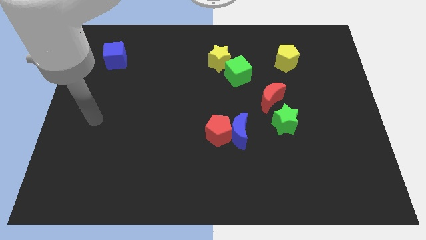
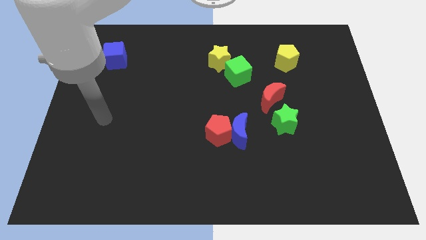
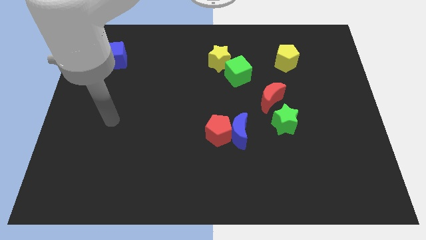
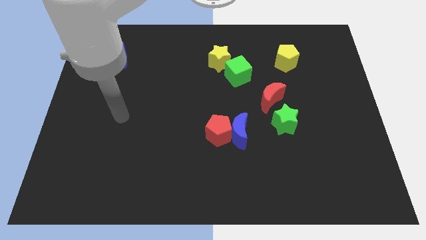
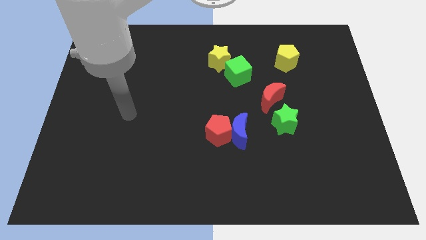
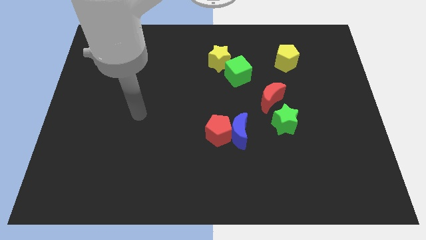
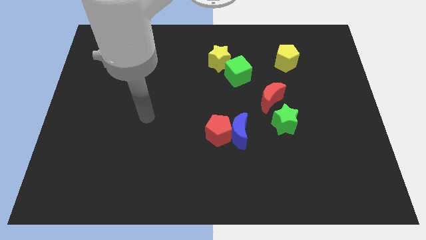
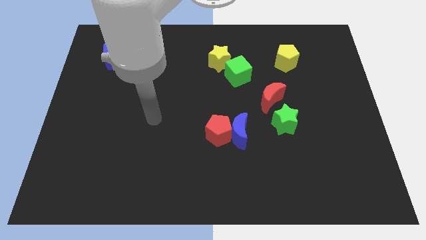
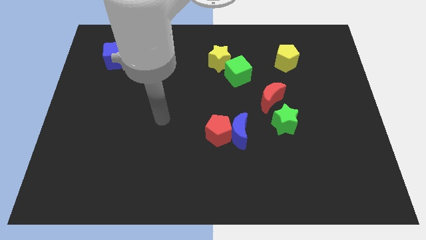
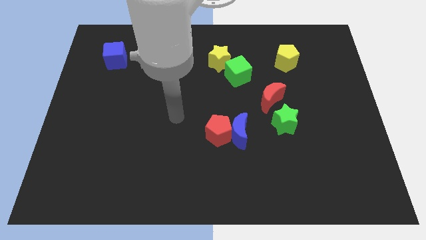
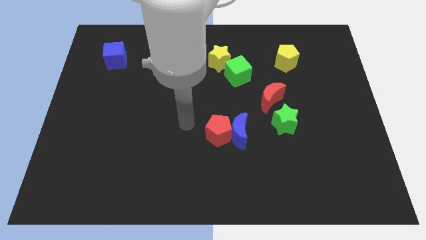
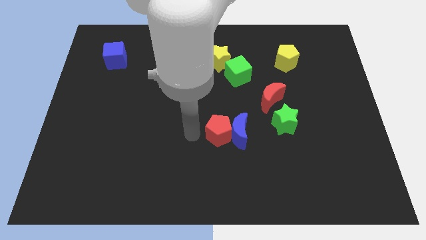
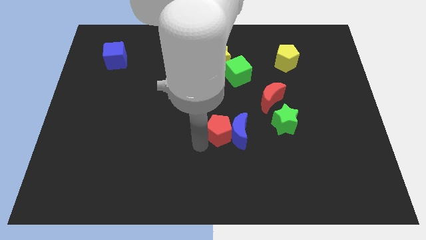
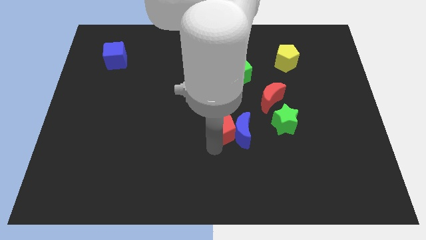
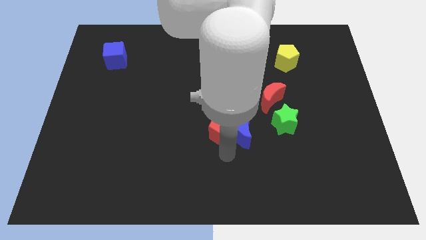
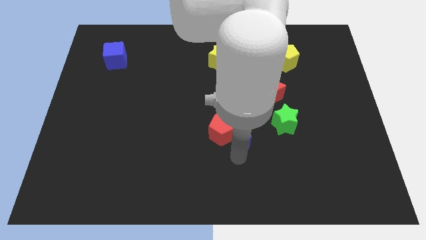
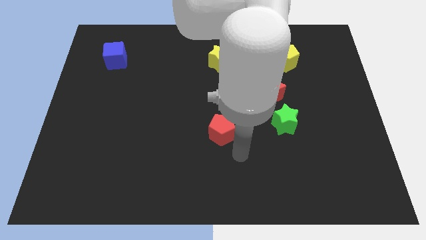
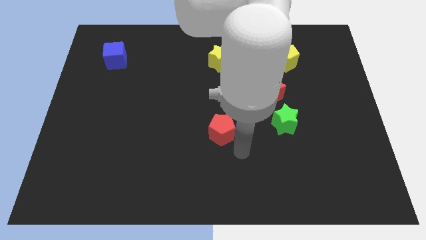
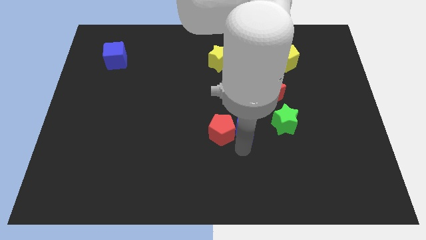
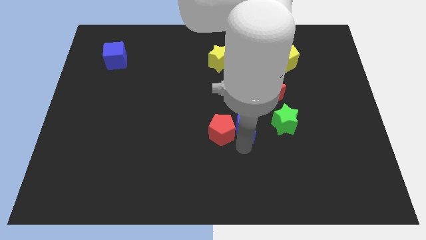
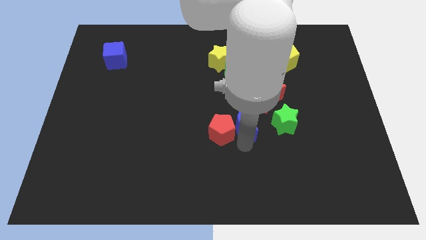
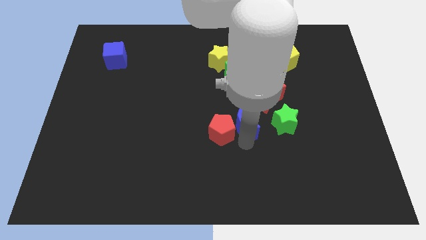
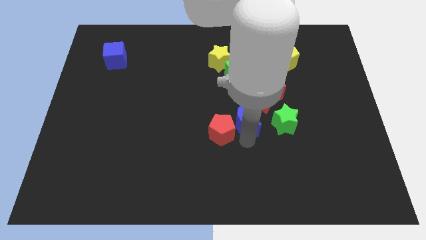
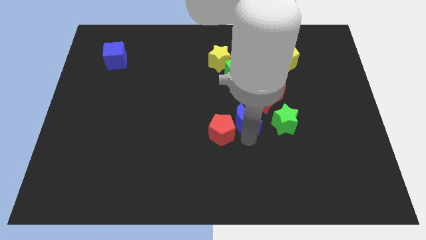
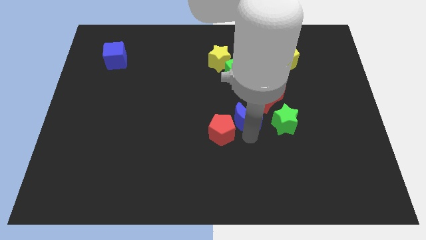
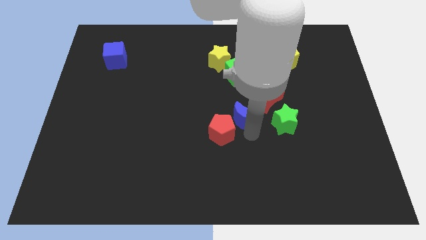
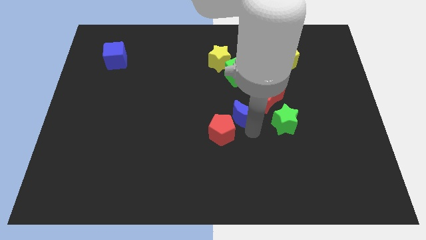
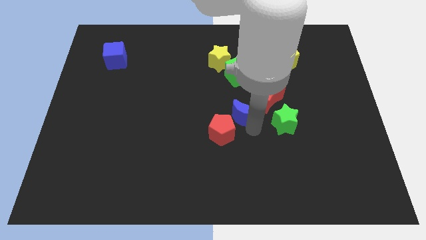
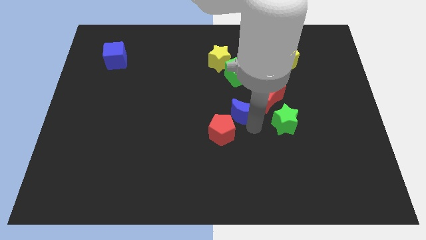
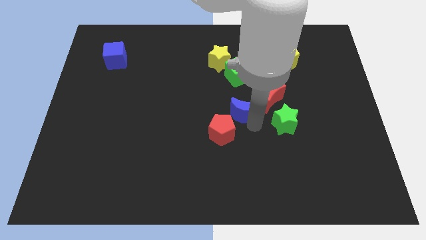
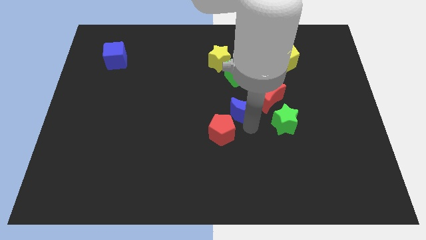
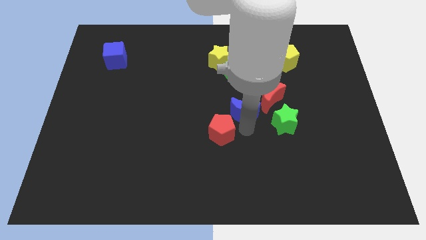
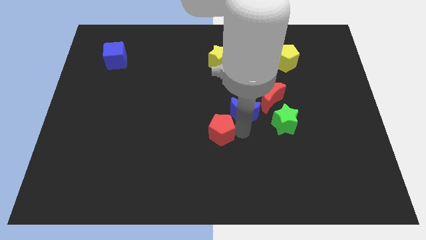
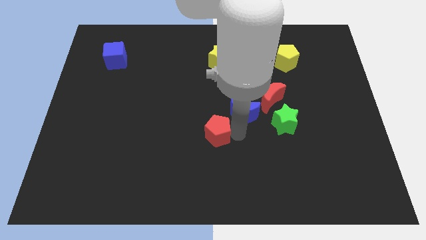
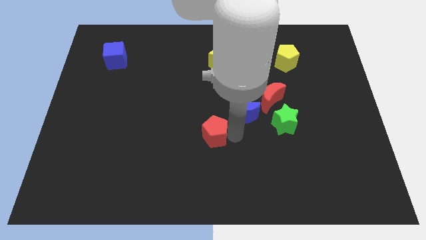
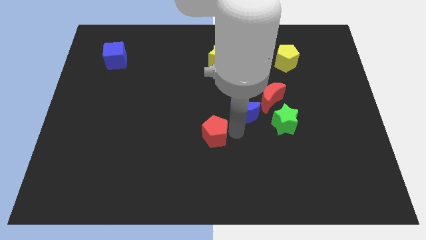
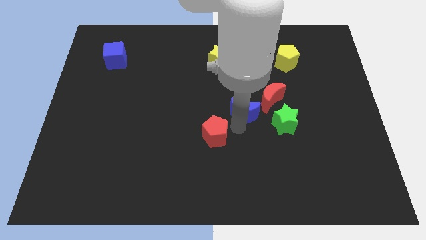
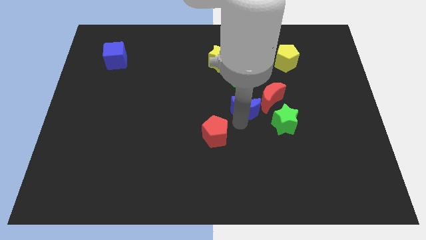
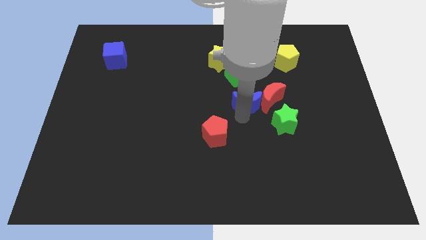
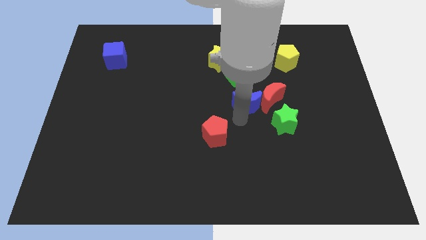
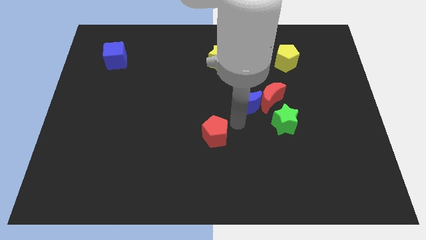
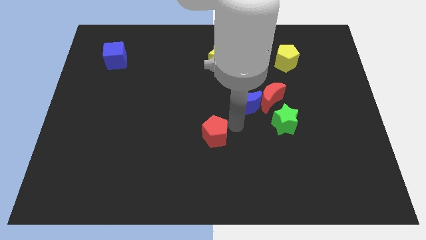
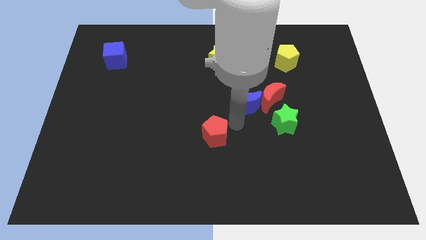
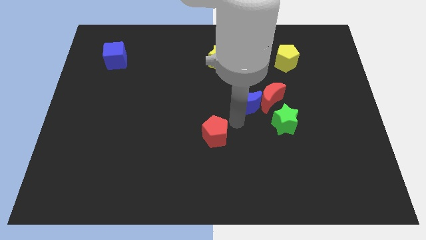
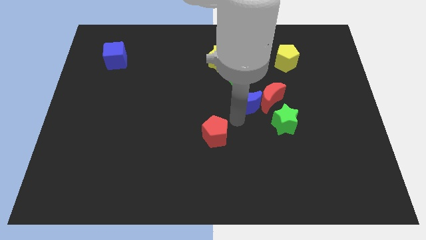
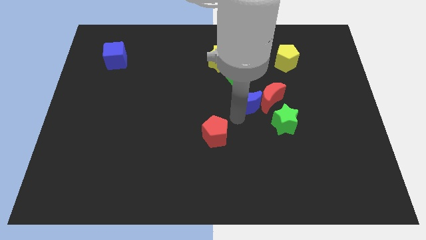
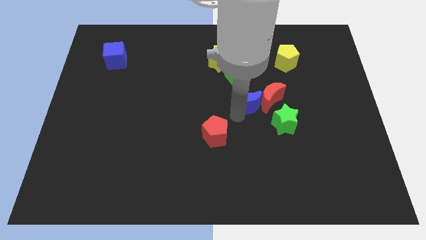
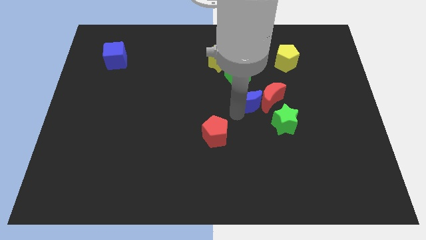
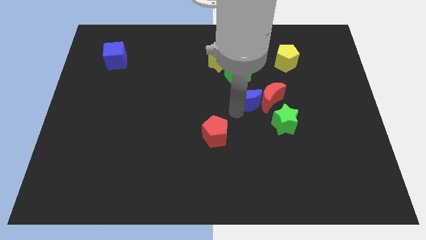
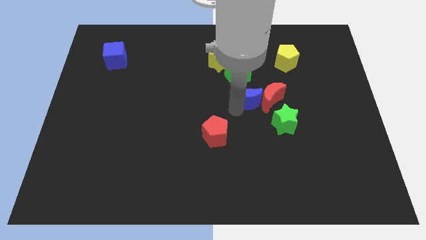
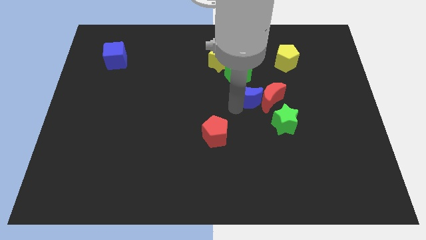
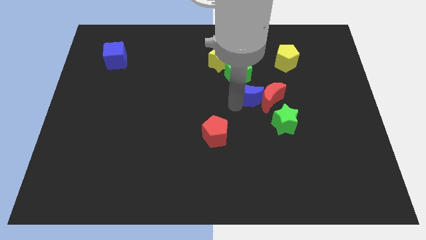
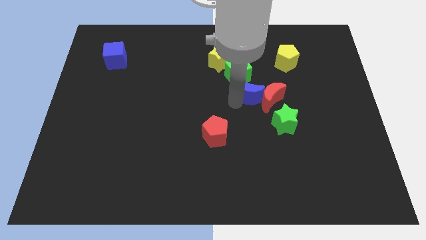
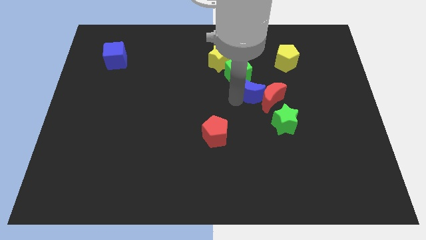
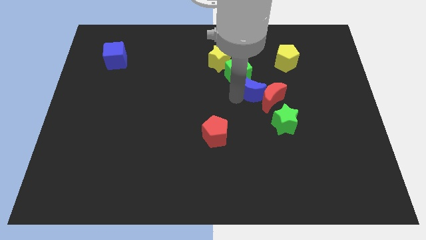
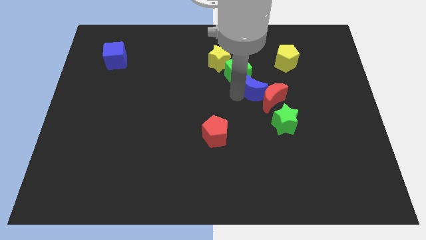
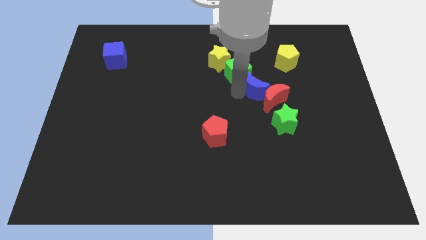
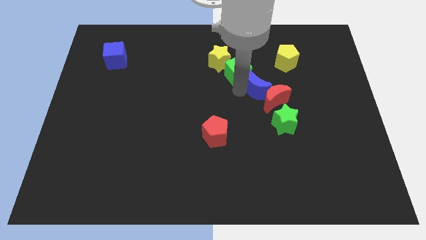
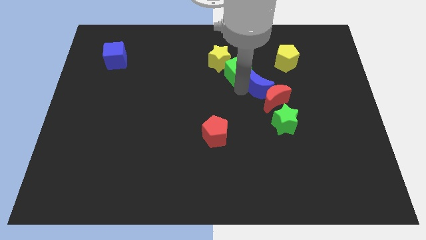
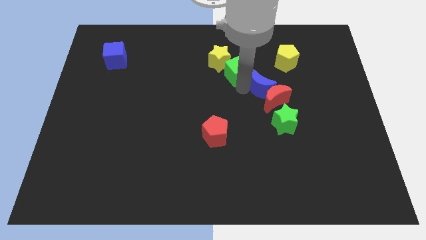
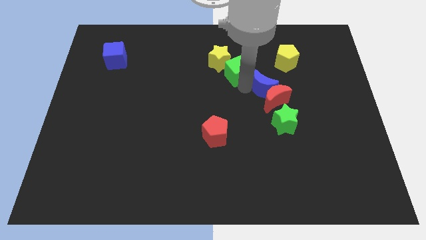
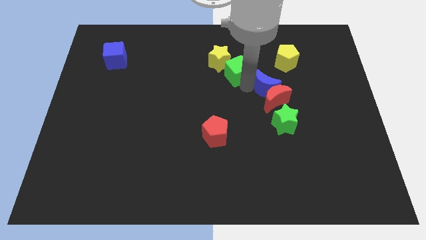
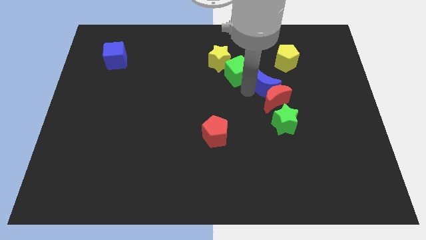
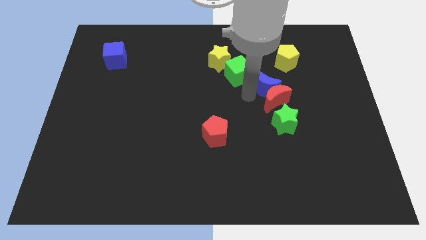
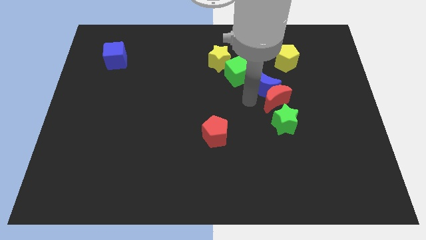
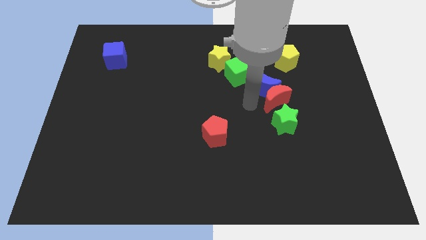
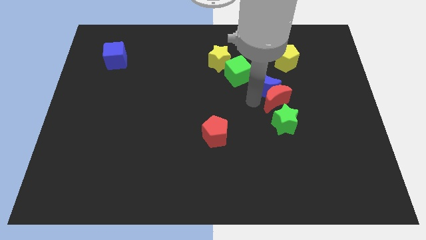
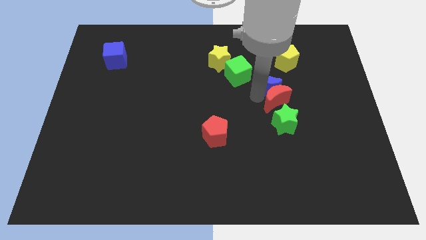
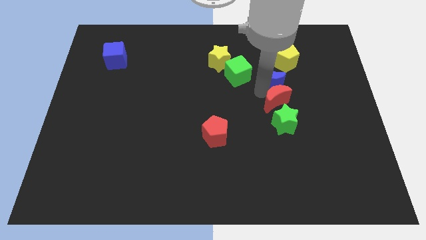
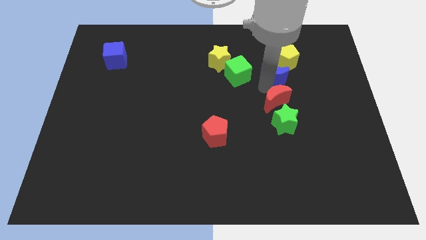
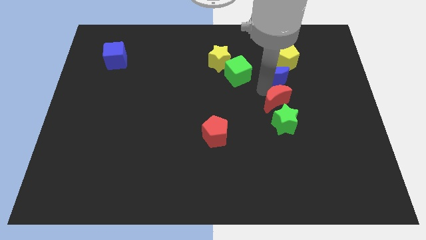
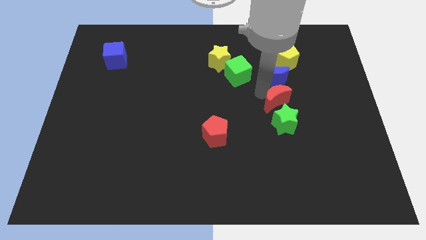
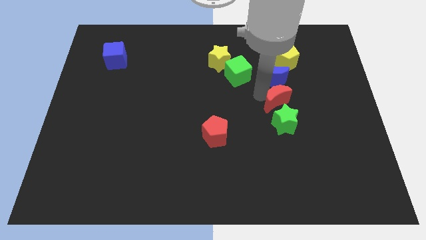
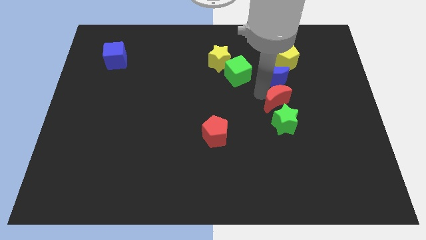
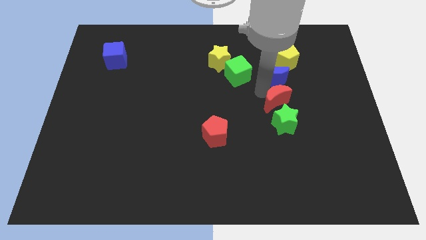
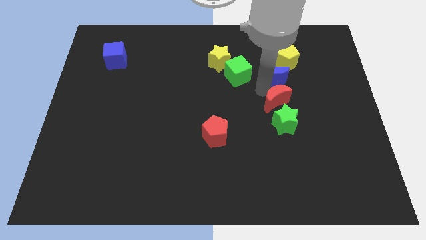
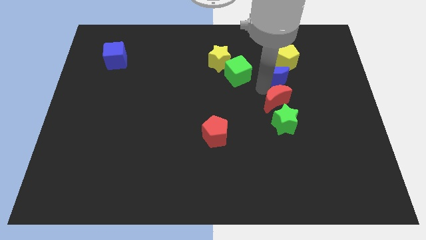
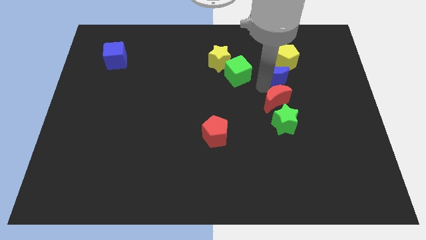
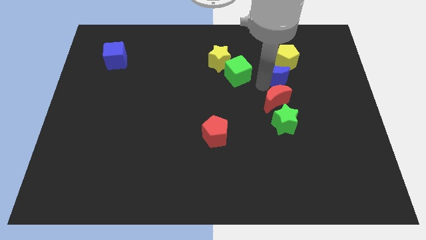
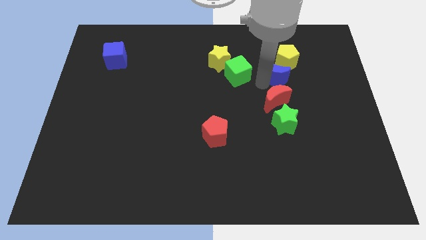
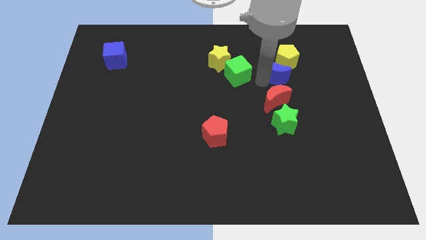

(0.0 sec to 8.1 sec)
move the blue moon towards the yellow pentagon
